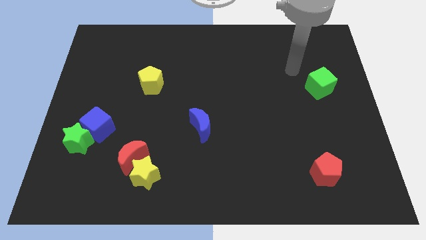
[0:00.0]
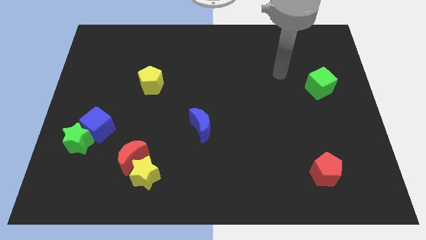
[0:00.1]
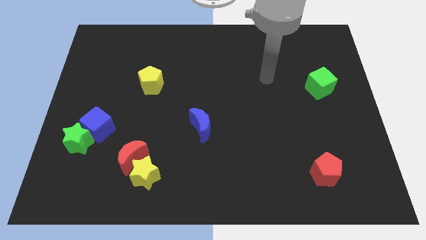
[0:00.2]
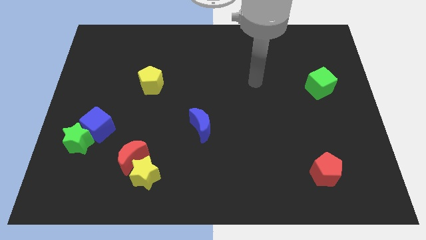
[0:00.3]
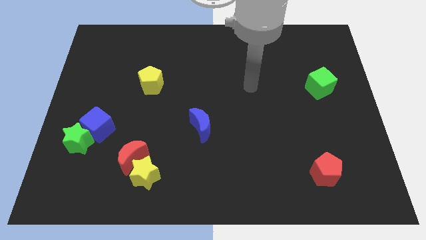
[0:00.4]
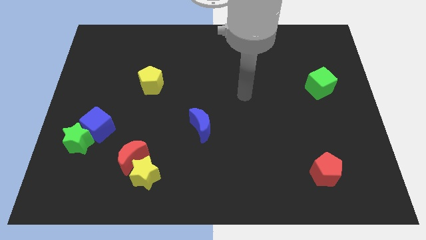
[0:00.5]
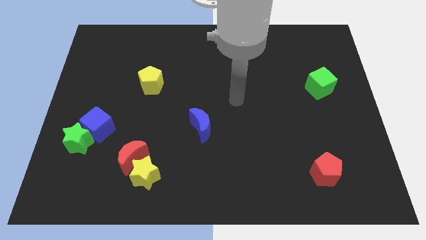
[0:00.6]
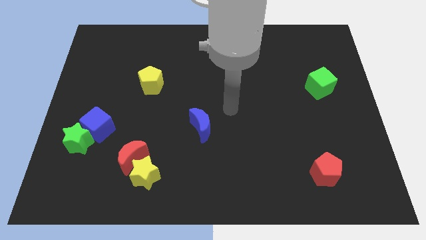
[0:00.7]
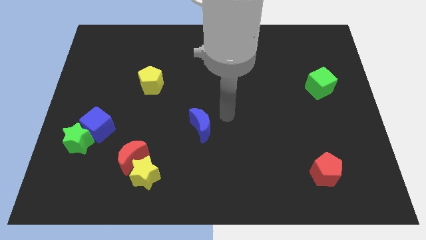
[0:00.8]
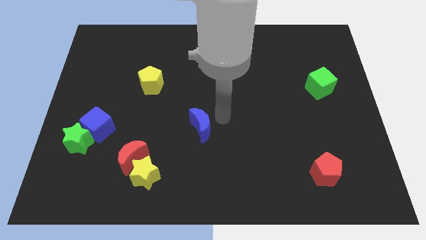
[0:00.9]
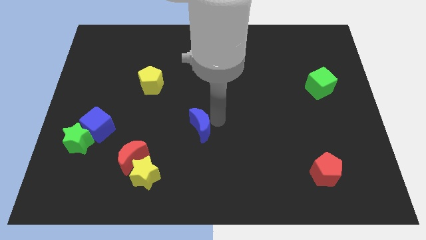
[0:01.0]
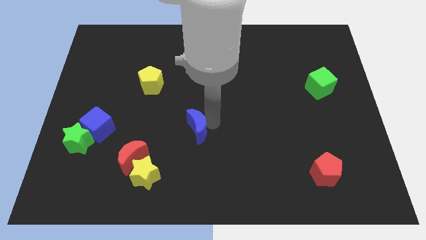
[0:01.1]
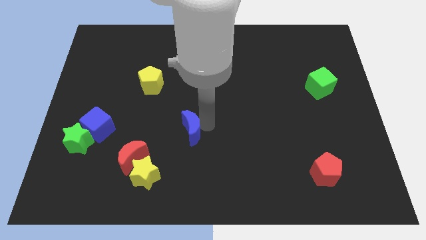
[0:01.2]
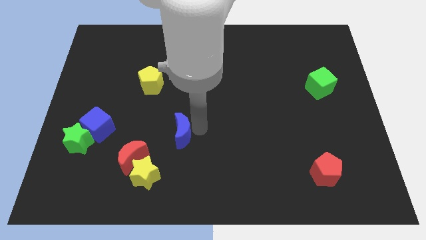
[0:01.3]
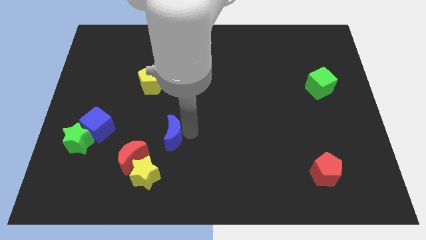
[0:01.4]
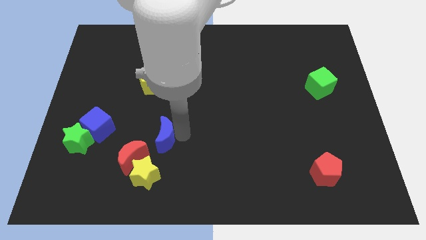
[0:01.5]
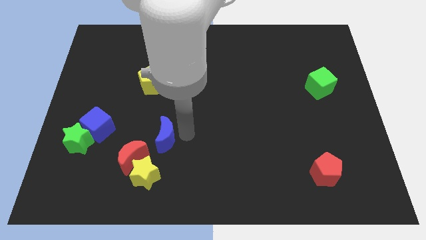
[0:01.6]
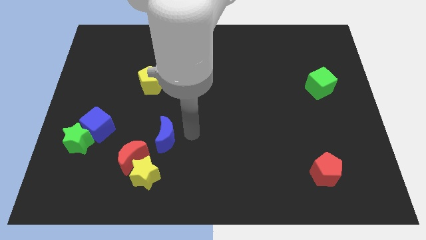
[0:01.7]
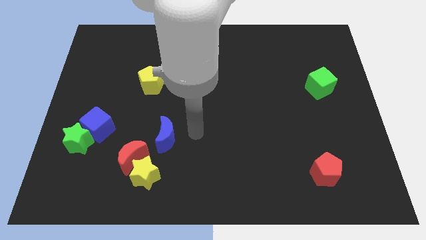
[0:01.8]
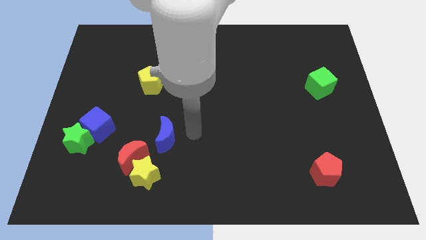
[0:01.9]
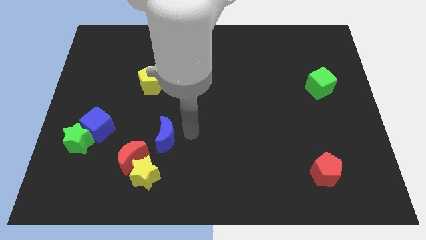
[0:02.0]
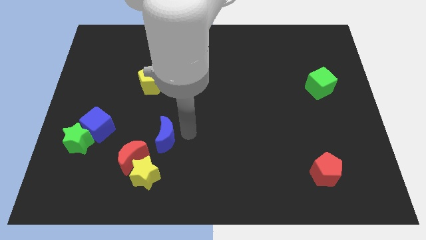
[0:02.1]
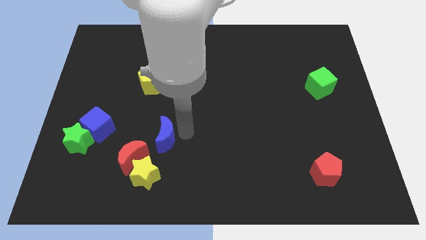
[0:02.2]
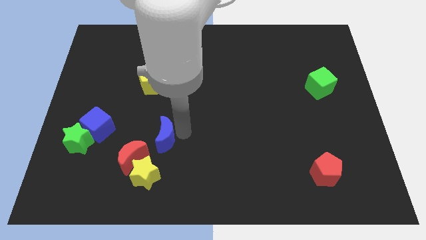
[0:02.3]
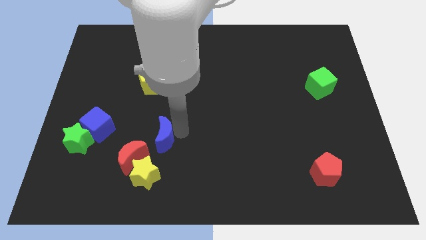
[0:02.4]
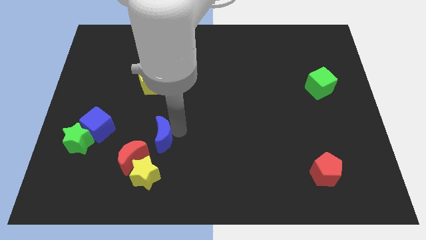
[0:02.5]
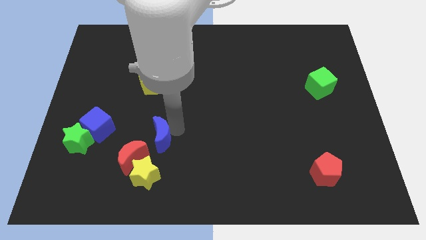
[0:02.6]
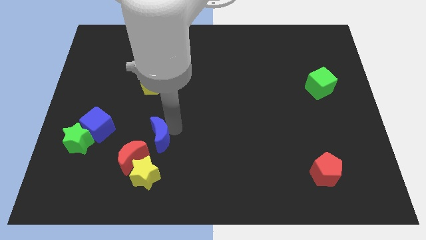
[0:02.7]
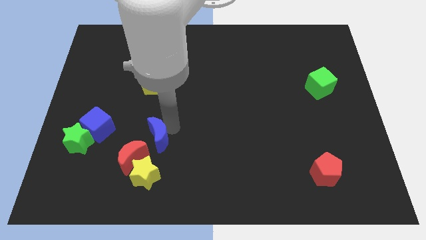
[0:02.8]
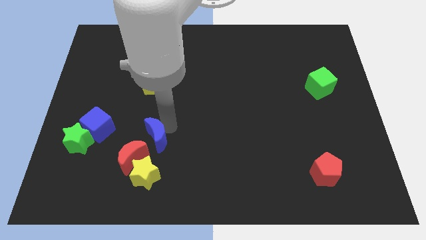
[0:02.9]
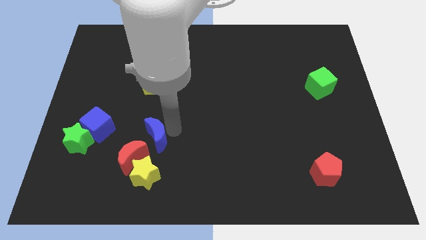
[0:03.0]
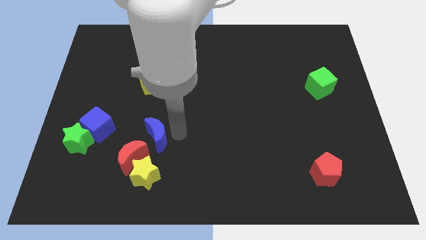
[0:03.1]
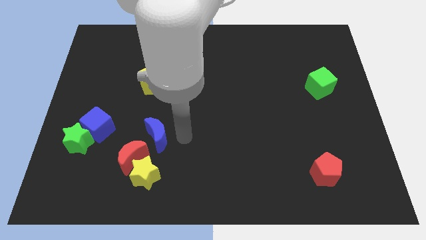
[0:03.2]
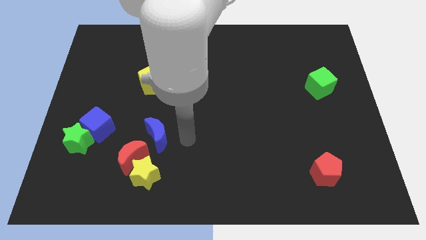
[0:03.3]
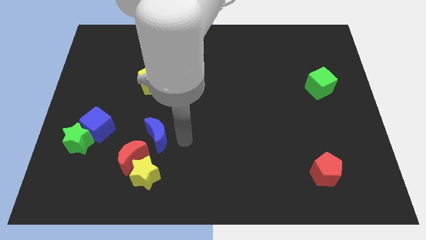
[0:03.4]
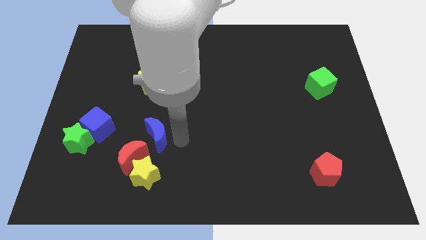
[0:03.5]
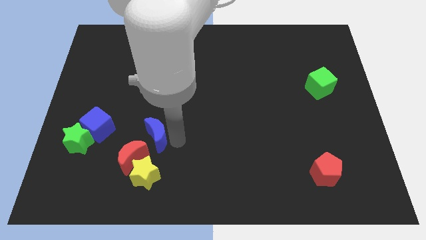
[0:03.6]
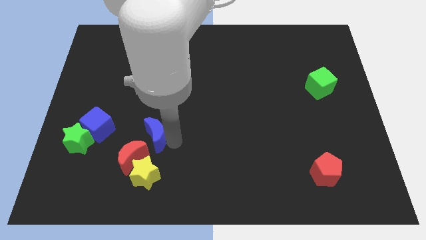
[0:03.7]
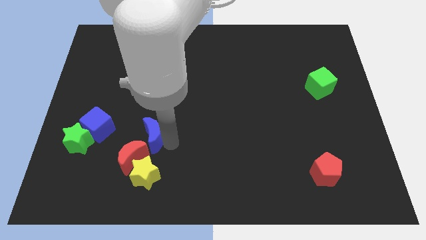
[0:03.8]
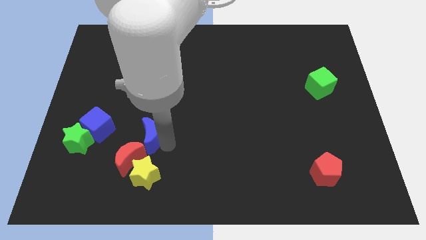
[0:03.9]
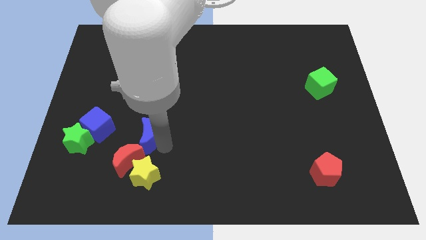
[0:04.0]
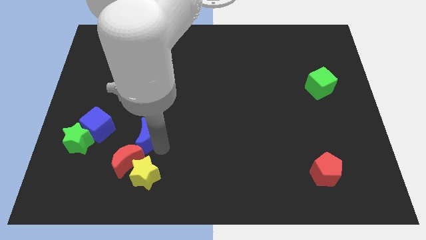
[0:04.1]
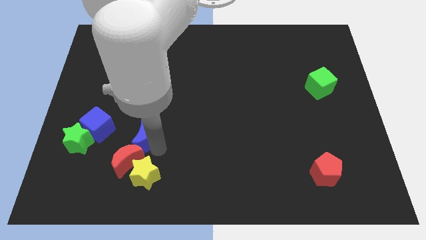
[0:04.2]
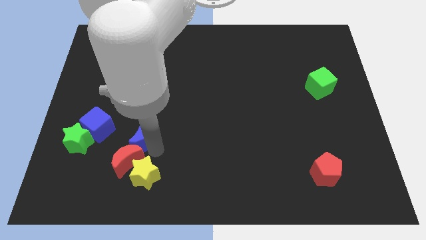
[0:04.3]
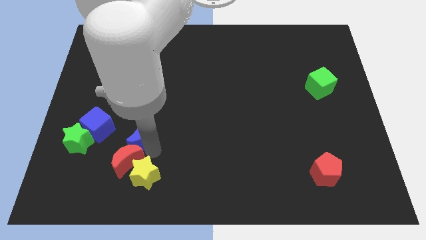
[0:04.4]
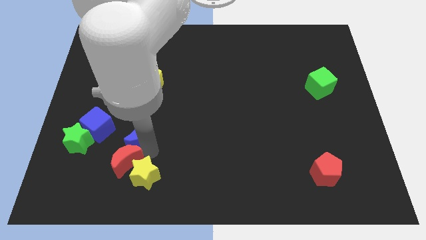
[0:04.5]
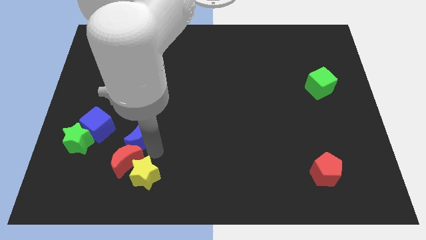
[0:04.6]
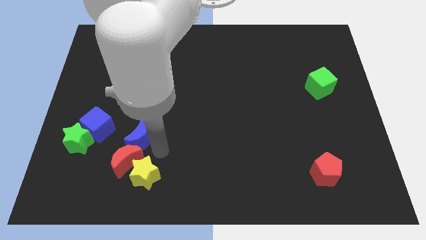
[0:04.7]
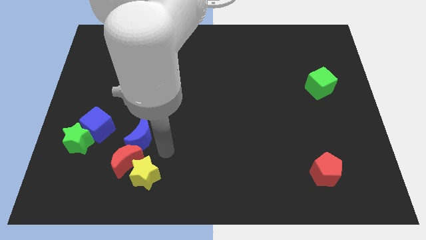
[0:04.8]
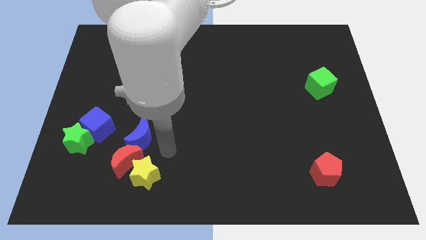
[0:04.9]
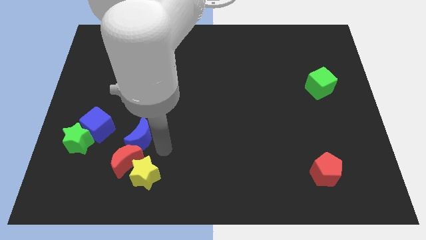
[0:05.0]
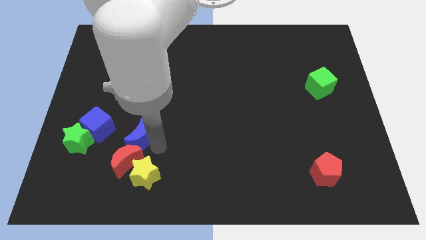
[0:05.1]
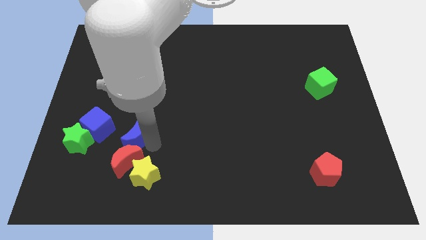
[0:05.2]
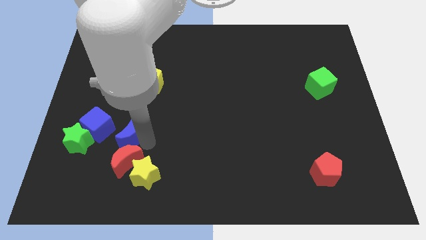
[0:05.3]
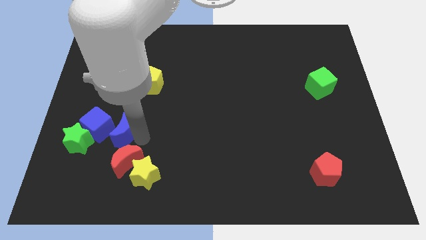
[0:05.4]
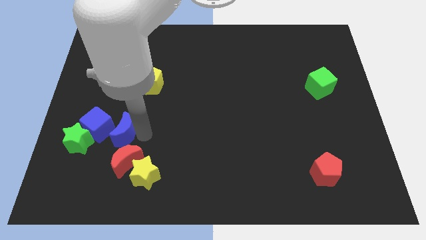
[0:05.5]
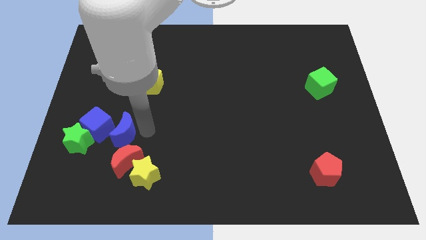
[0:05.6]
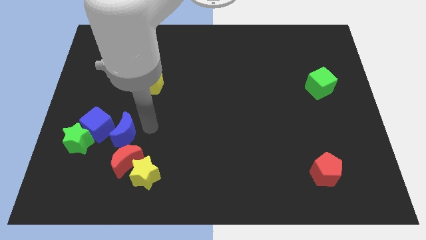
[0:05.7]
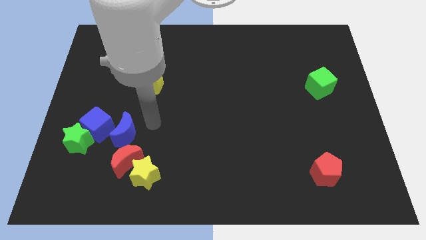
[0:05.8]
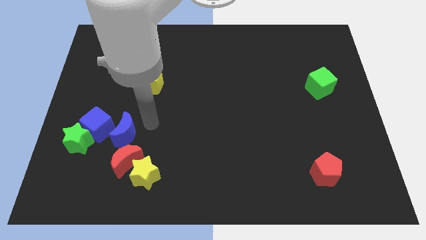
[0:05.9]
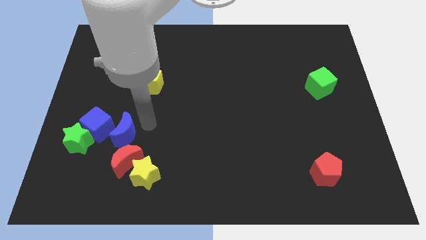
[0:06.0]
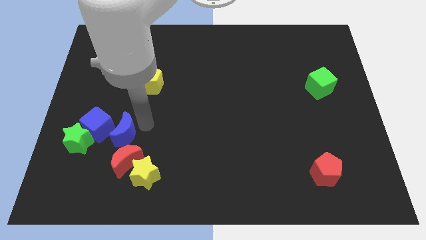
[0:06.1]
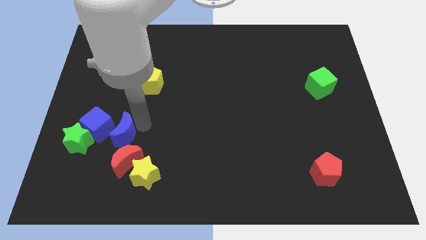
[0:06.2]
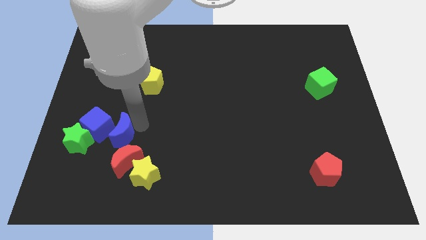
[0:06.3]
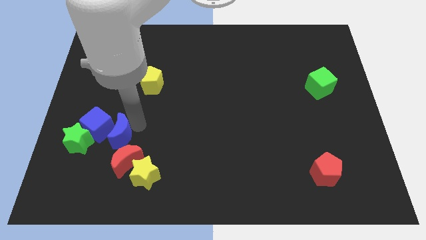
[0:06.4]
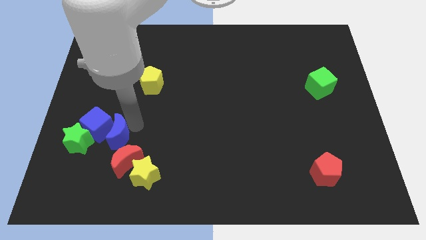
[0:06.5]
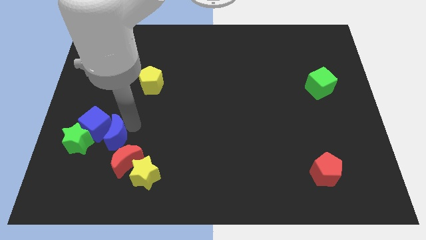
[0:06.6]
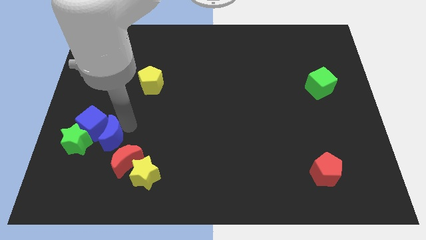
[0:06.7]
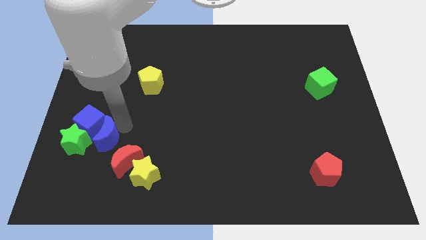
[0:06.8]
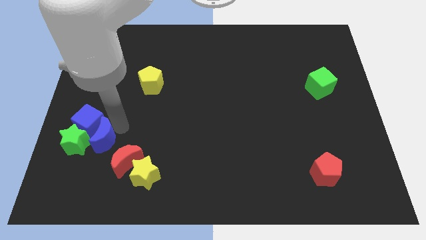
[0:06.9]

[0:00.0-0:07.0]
slide the blue moon next to the green star

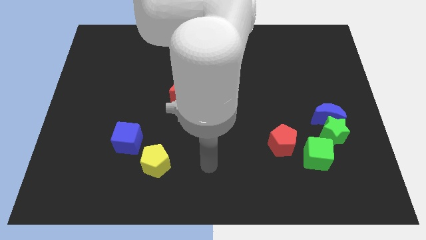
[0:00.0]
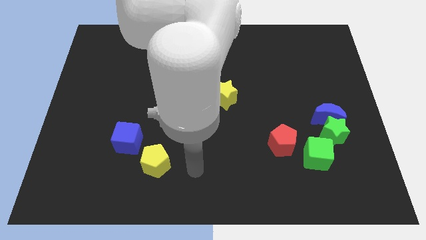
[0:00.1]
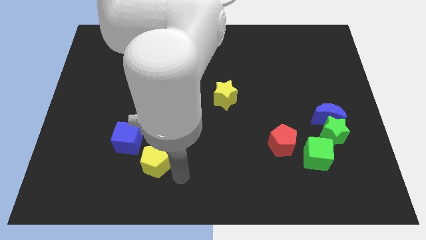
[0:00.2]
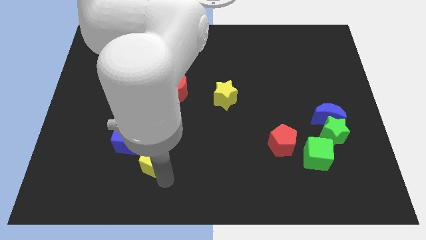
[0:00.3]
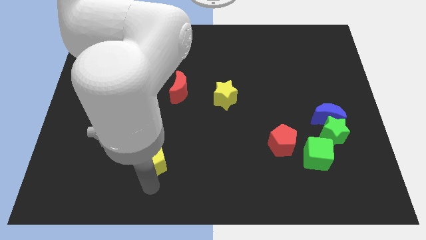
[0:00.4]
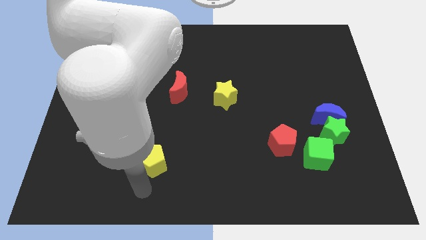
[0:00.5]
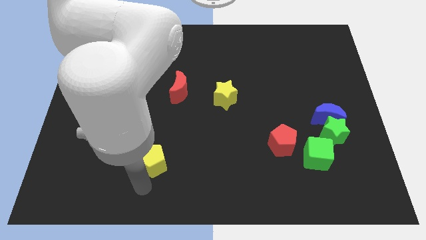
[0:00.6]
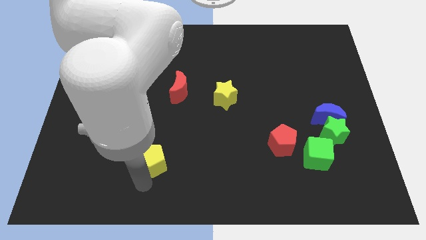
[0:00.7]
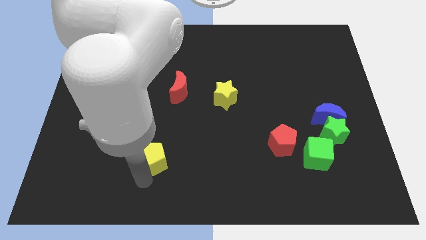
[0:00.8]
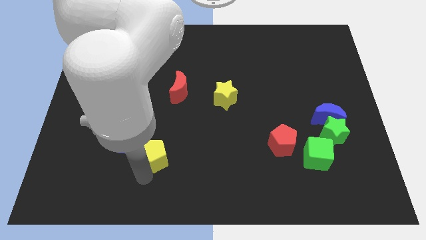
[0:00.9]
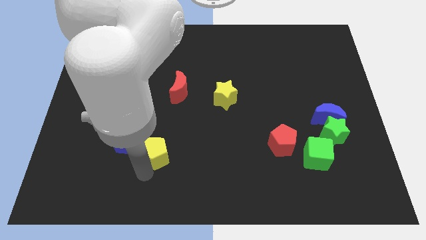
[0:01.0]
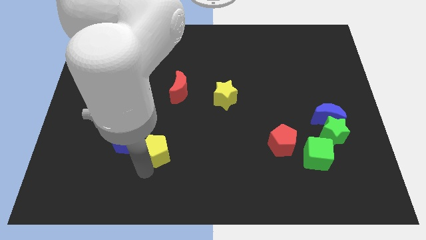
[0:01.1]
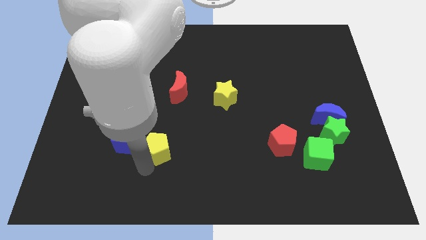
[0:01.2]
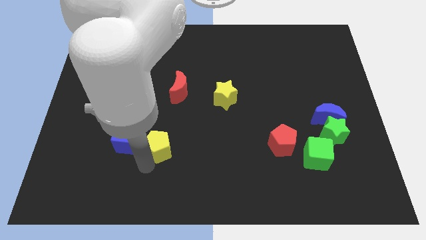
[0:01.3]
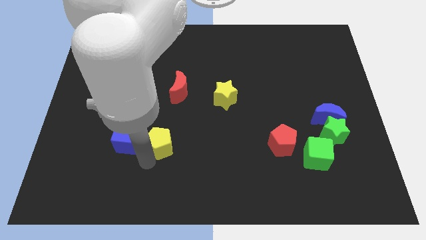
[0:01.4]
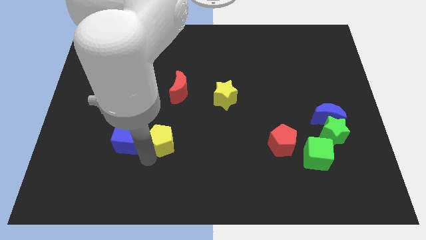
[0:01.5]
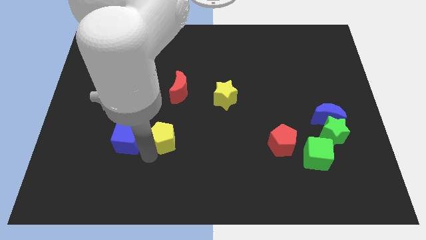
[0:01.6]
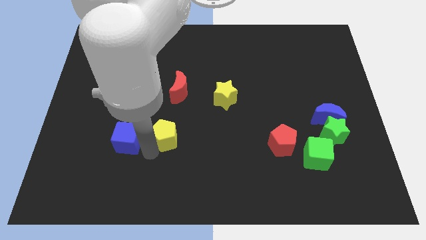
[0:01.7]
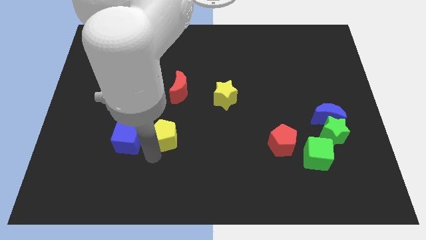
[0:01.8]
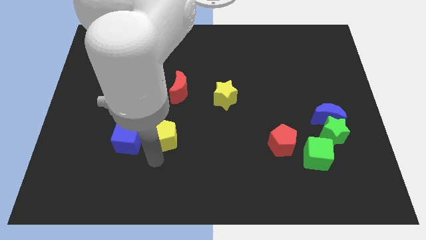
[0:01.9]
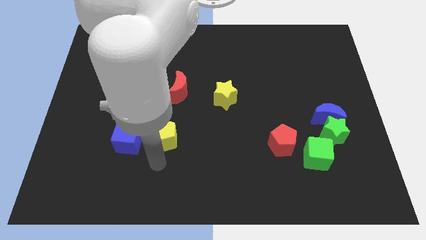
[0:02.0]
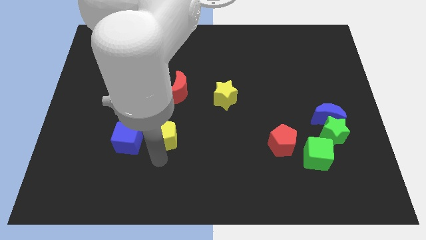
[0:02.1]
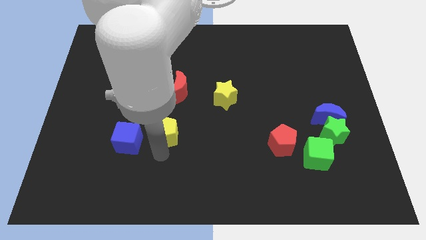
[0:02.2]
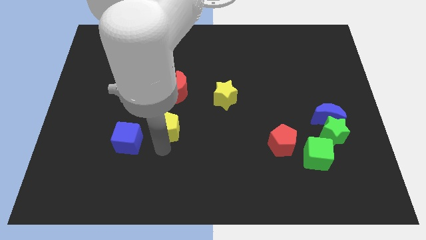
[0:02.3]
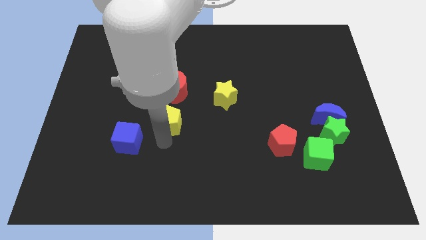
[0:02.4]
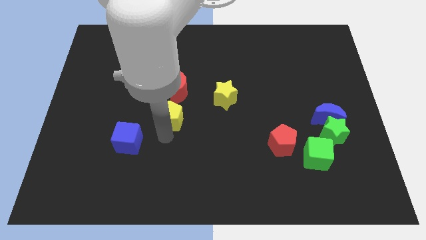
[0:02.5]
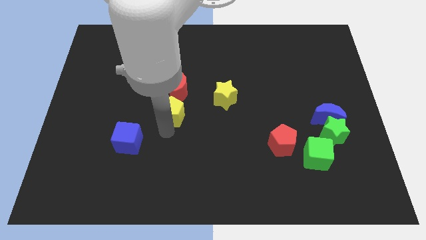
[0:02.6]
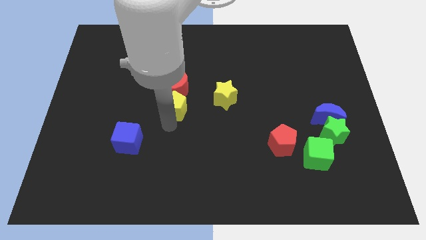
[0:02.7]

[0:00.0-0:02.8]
push the yellow pentagon close to the red moon
